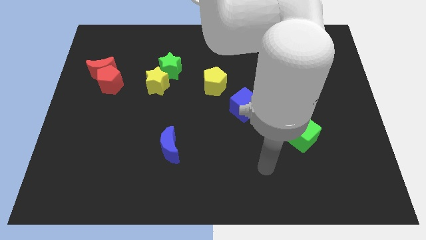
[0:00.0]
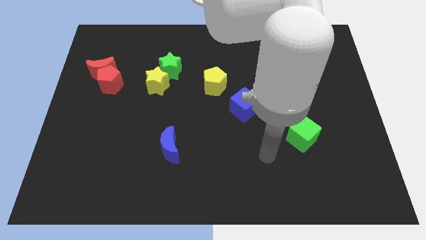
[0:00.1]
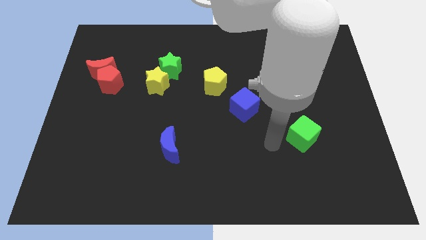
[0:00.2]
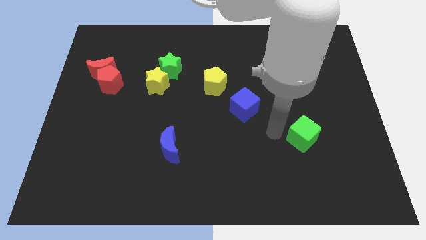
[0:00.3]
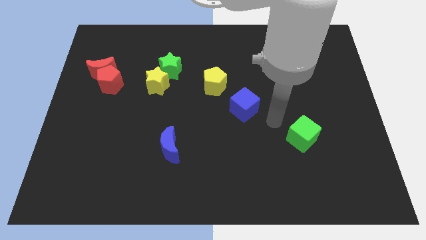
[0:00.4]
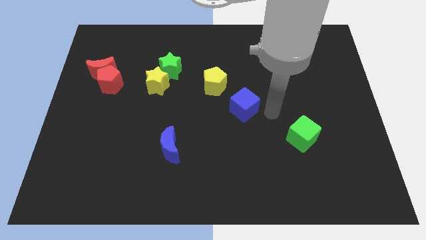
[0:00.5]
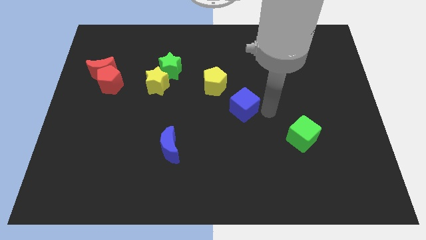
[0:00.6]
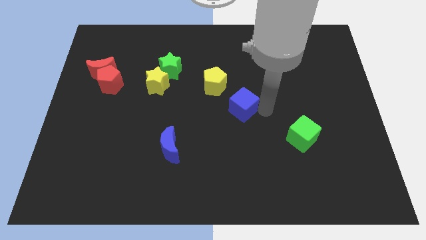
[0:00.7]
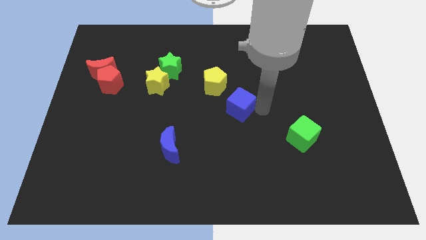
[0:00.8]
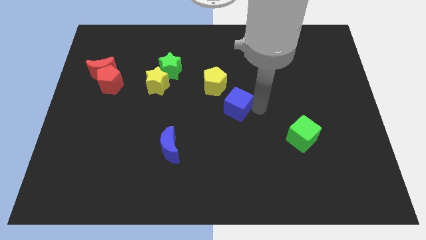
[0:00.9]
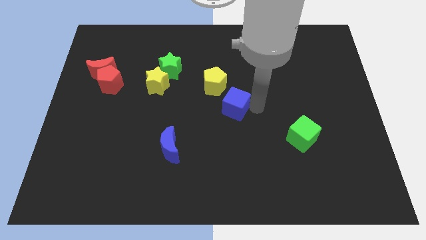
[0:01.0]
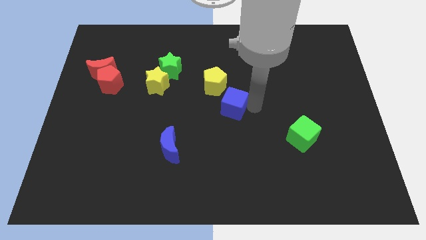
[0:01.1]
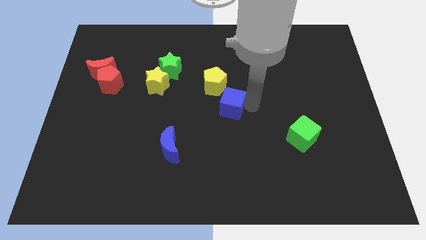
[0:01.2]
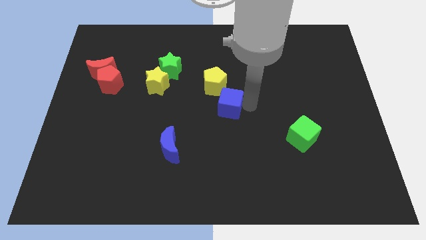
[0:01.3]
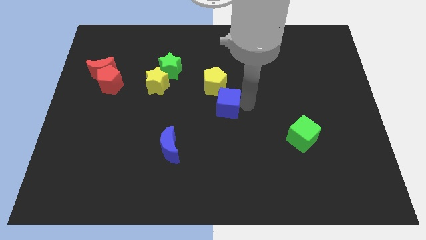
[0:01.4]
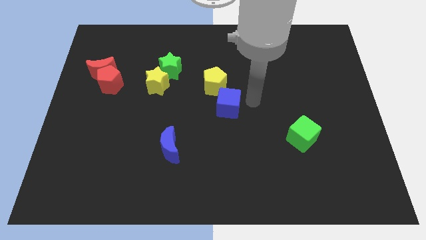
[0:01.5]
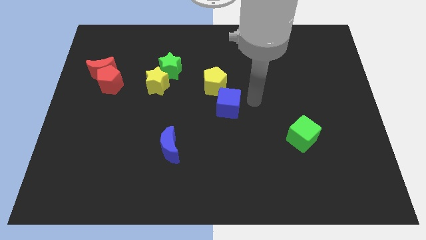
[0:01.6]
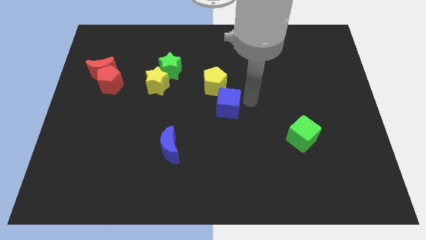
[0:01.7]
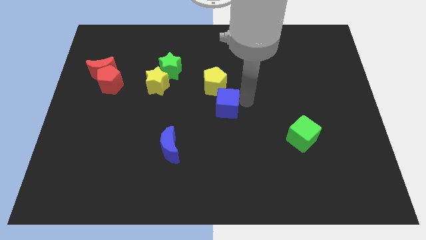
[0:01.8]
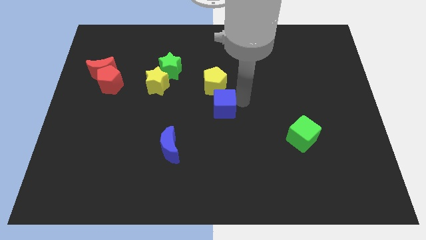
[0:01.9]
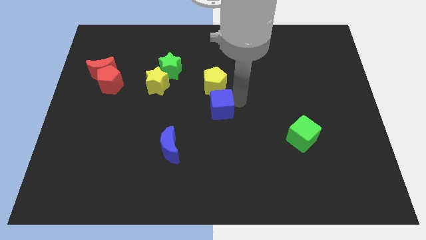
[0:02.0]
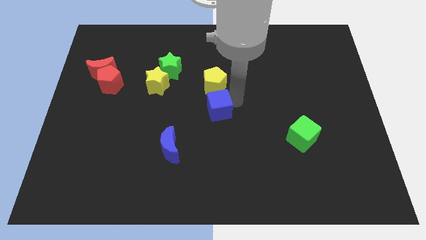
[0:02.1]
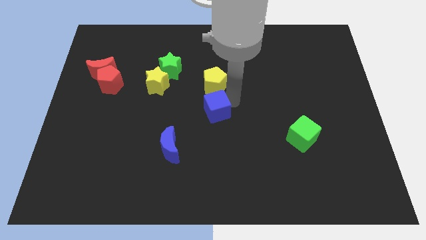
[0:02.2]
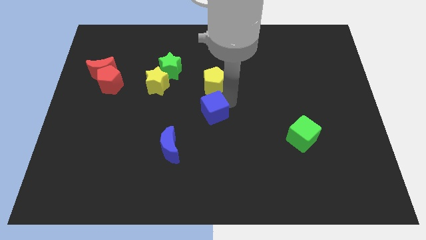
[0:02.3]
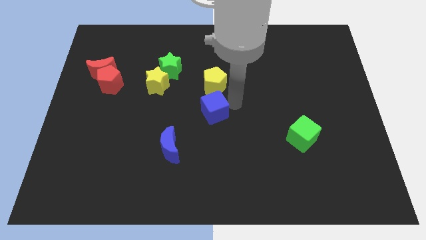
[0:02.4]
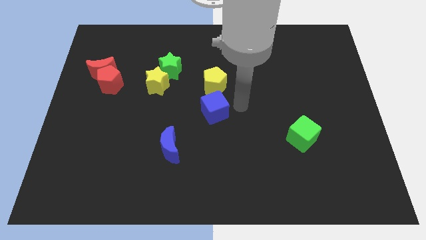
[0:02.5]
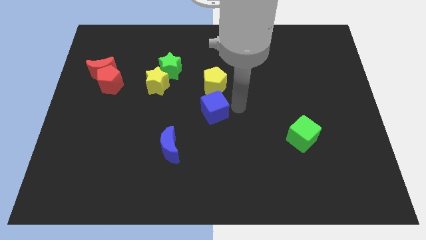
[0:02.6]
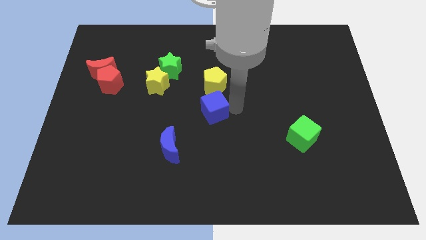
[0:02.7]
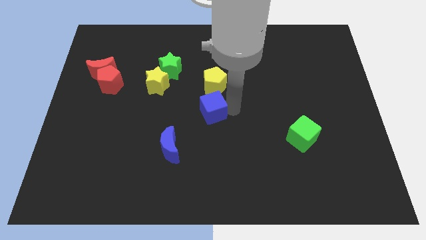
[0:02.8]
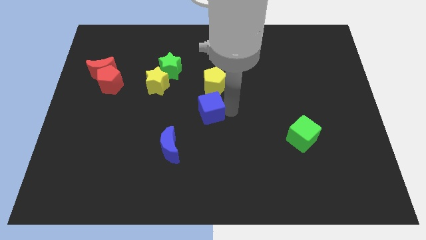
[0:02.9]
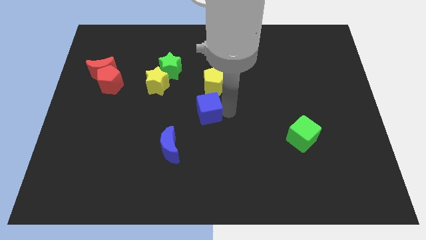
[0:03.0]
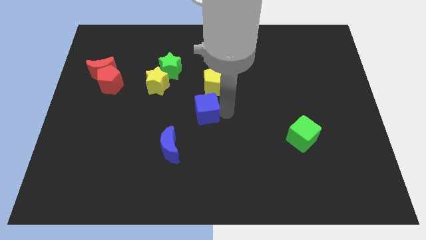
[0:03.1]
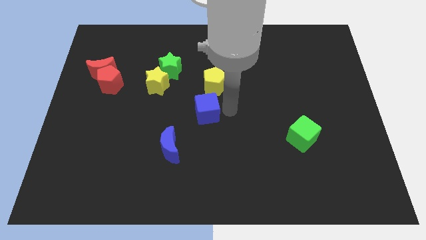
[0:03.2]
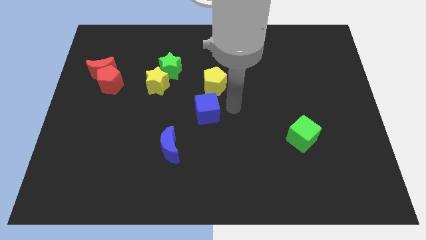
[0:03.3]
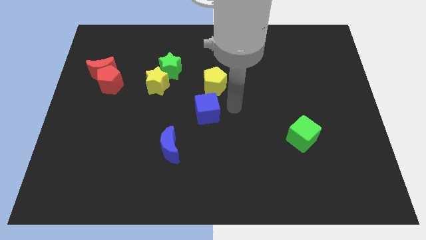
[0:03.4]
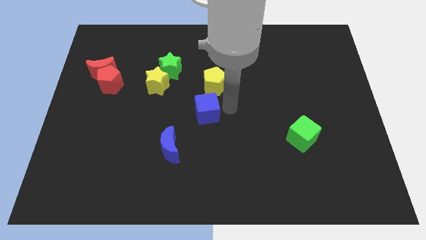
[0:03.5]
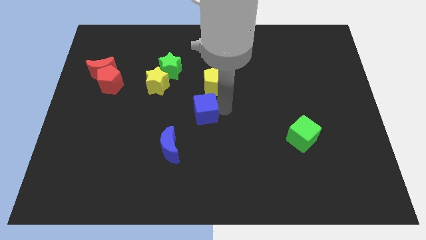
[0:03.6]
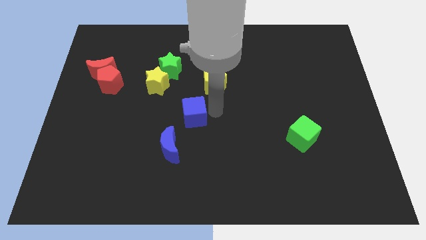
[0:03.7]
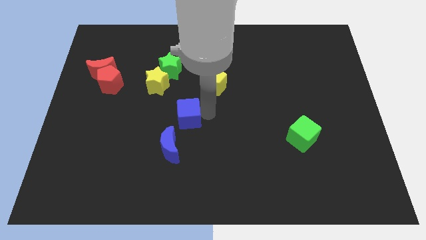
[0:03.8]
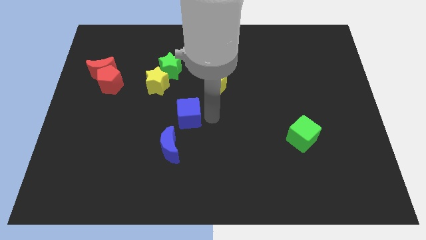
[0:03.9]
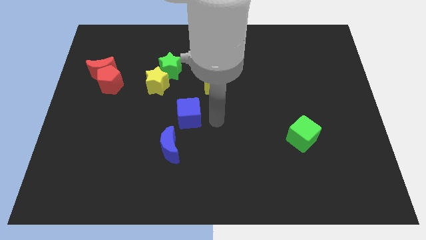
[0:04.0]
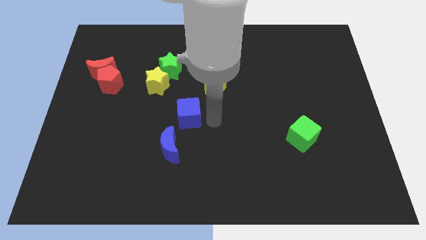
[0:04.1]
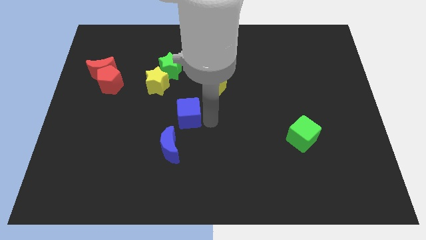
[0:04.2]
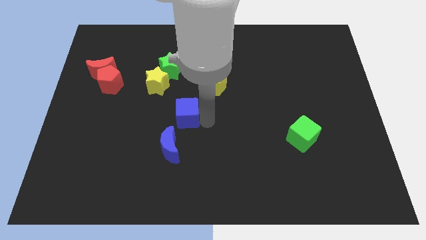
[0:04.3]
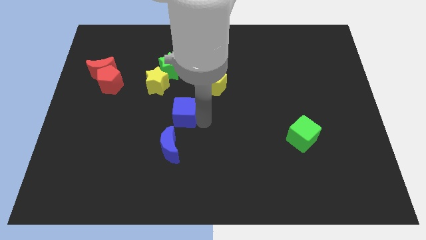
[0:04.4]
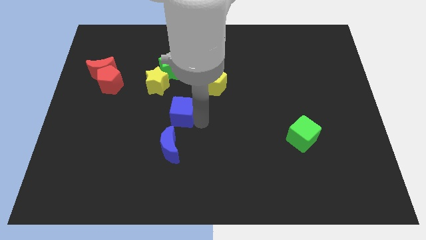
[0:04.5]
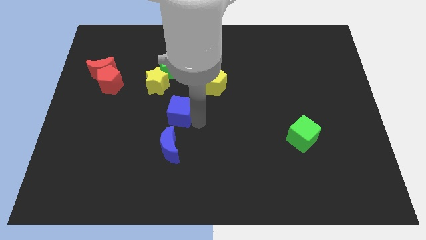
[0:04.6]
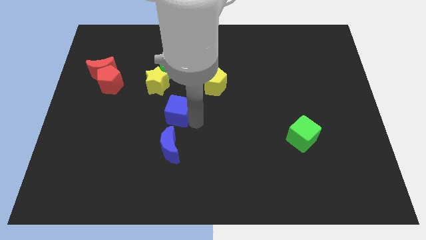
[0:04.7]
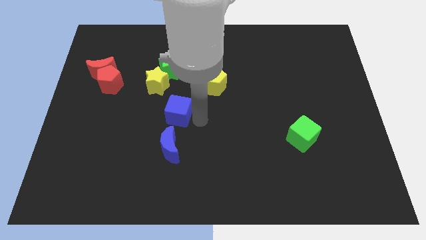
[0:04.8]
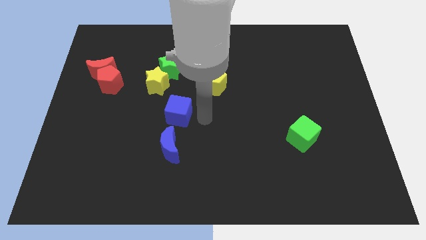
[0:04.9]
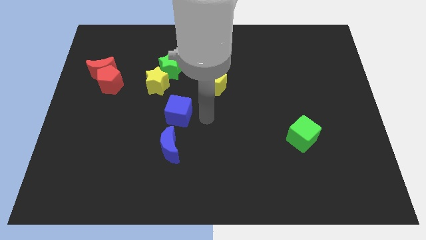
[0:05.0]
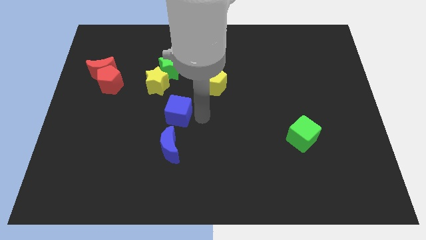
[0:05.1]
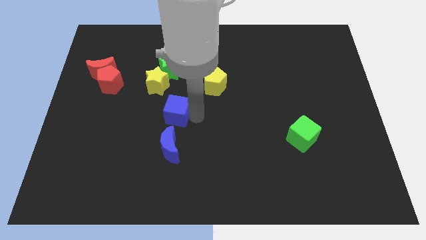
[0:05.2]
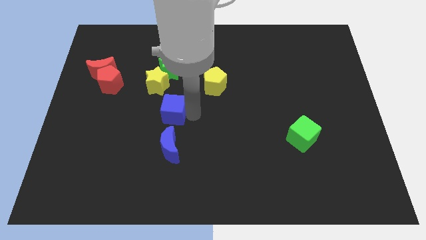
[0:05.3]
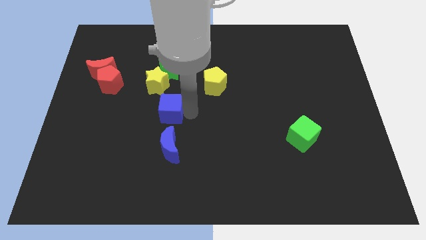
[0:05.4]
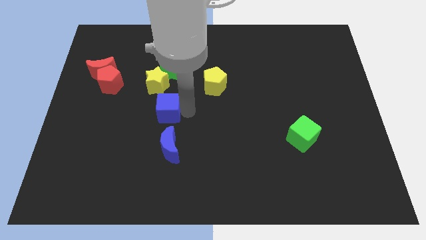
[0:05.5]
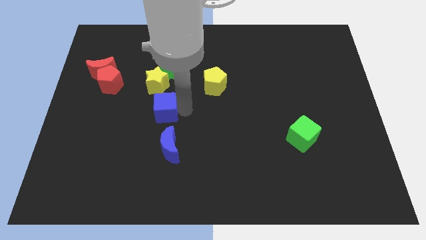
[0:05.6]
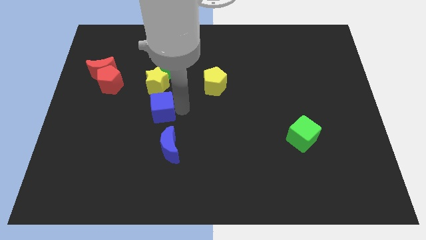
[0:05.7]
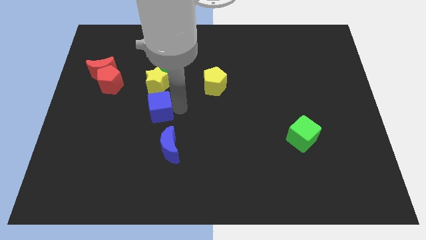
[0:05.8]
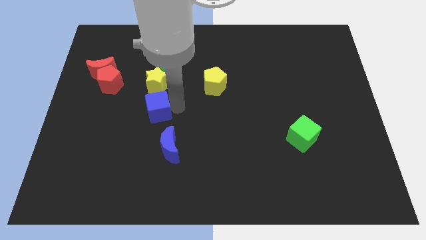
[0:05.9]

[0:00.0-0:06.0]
push the blue cube to the left

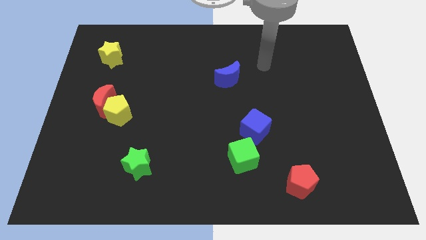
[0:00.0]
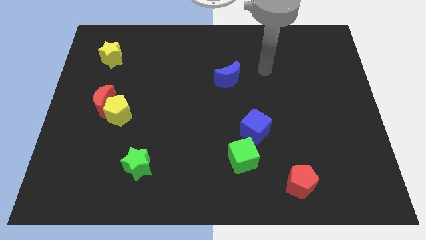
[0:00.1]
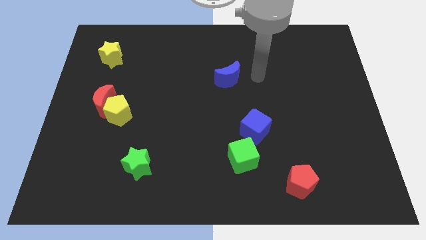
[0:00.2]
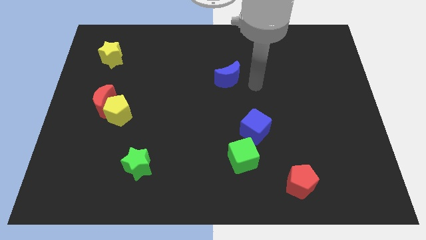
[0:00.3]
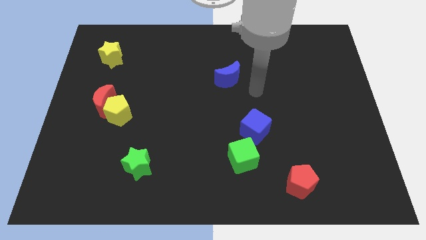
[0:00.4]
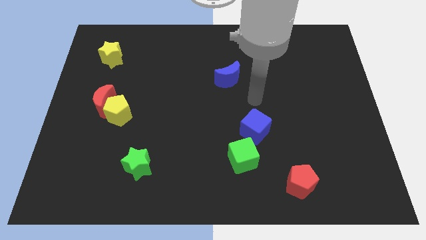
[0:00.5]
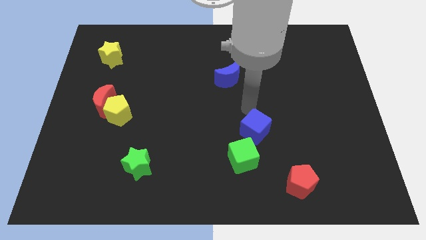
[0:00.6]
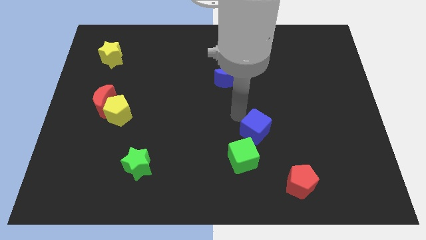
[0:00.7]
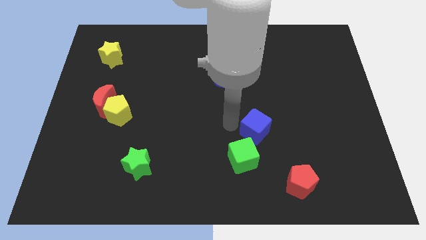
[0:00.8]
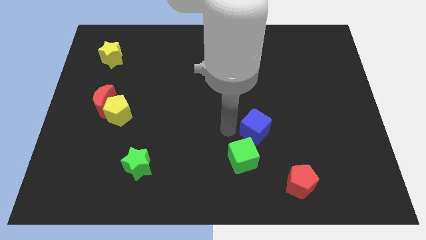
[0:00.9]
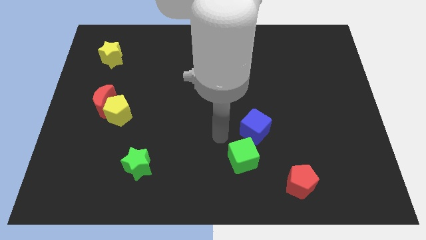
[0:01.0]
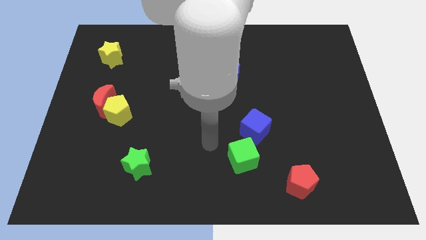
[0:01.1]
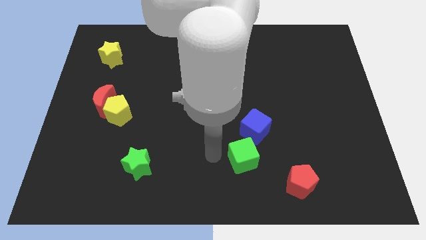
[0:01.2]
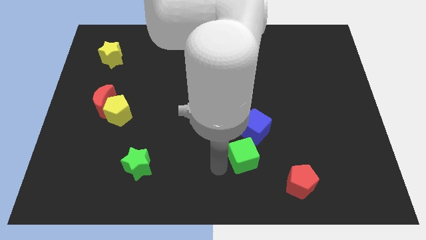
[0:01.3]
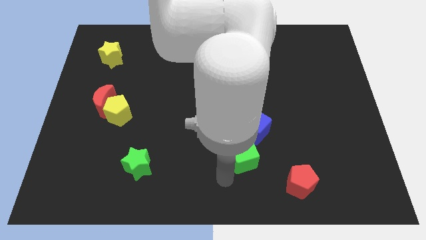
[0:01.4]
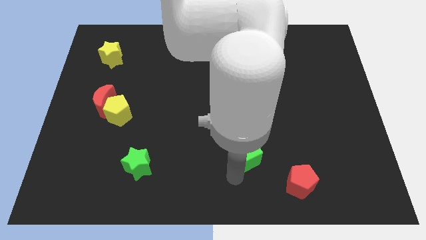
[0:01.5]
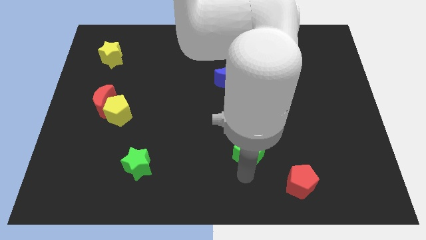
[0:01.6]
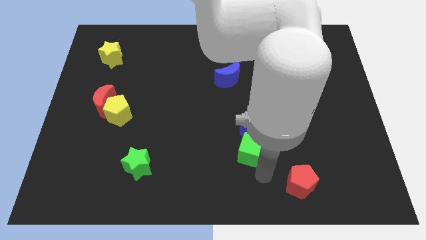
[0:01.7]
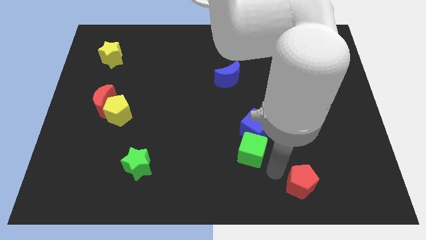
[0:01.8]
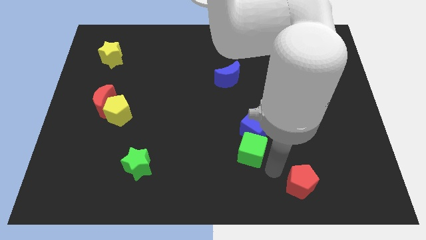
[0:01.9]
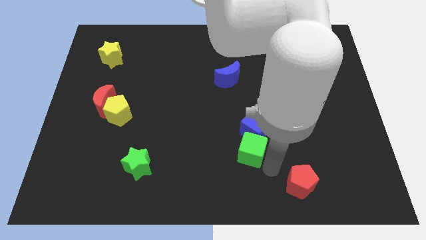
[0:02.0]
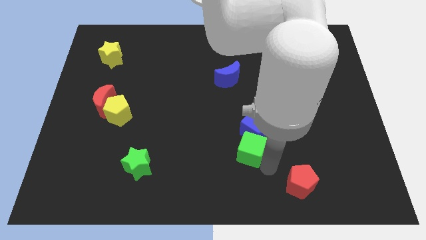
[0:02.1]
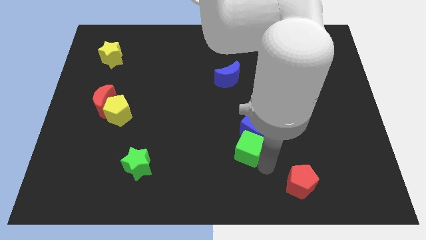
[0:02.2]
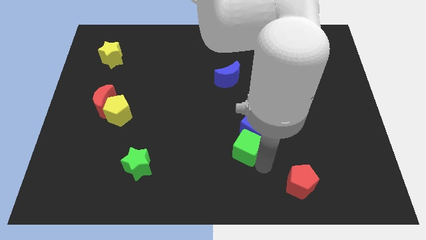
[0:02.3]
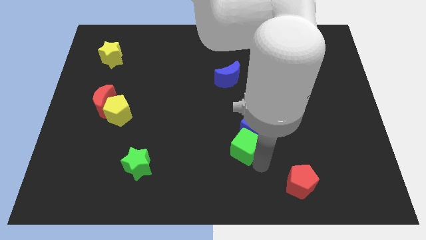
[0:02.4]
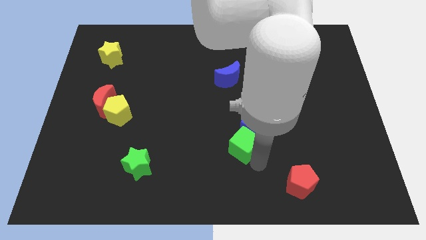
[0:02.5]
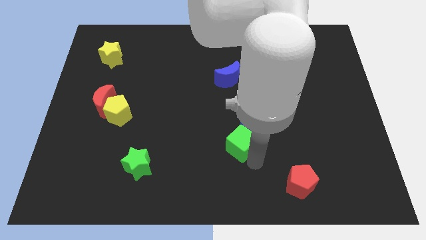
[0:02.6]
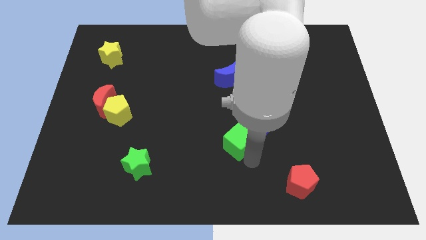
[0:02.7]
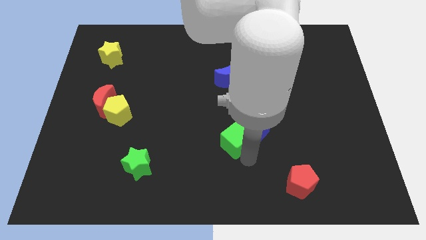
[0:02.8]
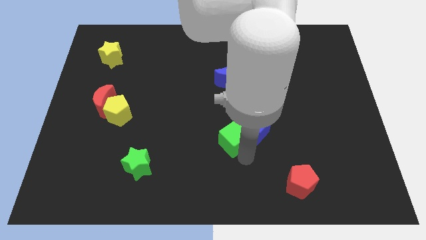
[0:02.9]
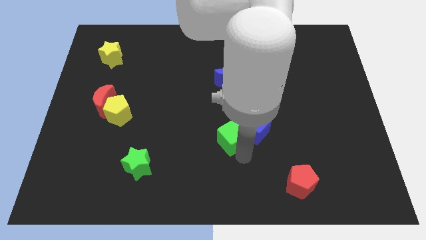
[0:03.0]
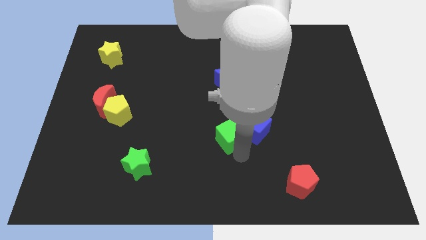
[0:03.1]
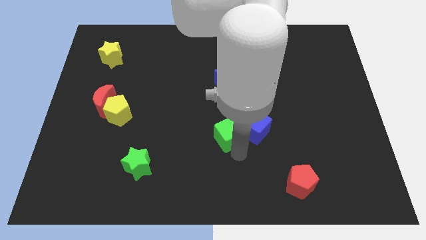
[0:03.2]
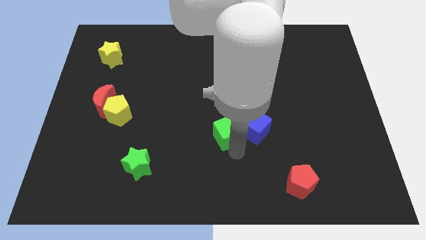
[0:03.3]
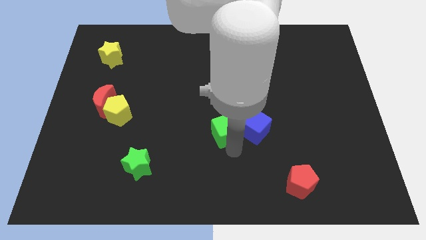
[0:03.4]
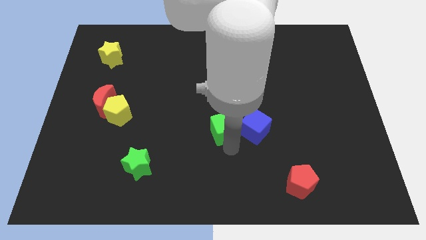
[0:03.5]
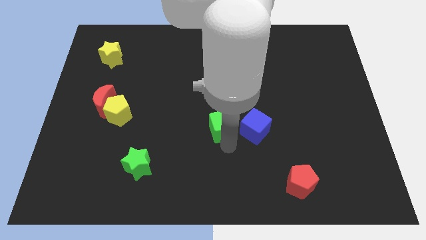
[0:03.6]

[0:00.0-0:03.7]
slightly push the green cube upwards
